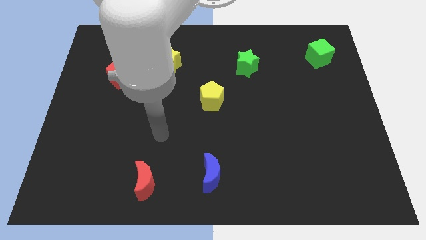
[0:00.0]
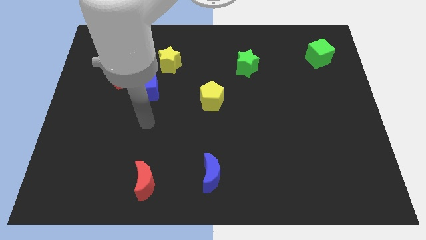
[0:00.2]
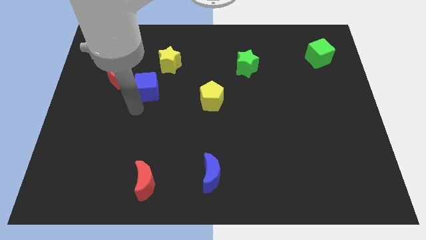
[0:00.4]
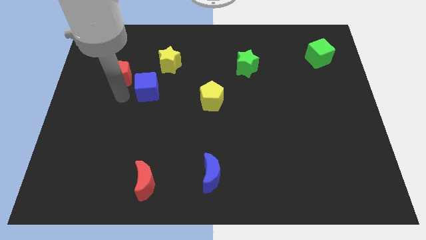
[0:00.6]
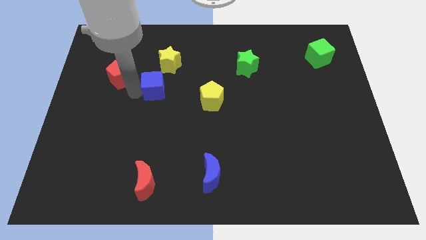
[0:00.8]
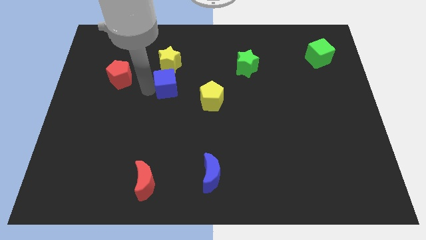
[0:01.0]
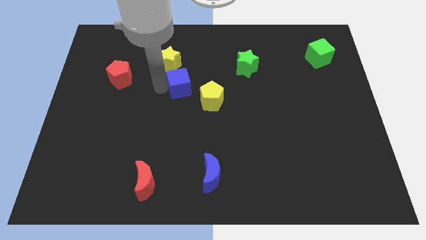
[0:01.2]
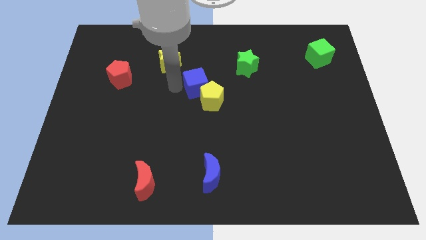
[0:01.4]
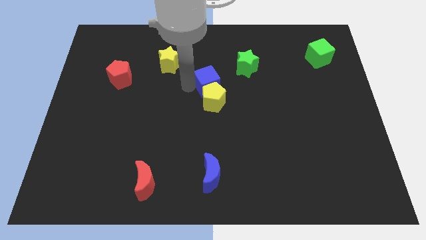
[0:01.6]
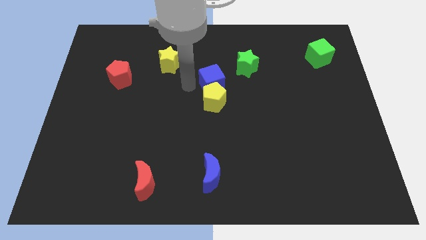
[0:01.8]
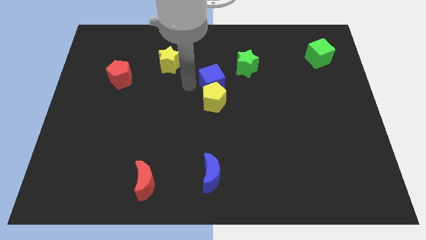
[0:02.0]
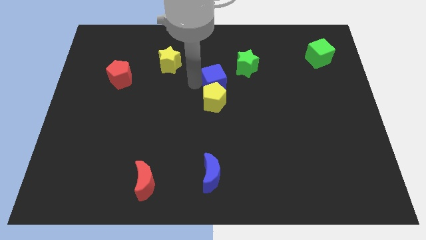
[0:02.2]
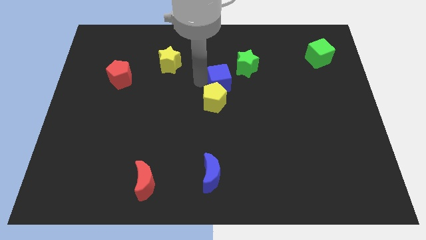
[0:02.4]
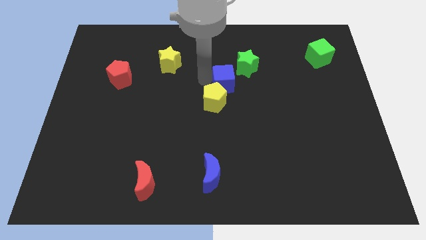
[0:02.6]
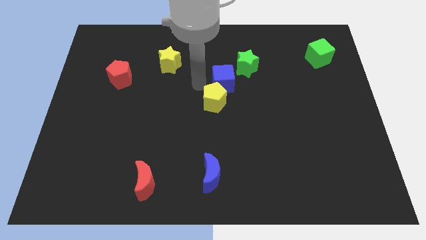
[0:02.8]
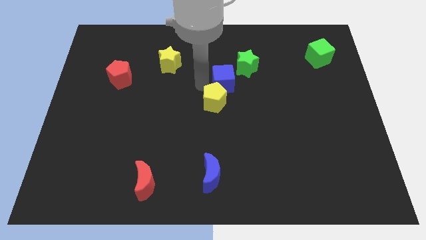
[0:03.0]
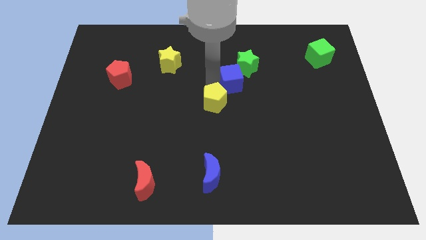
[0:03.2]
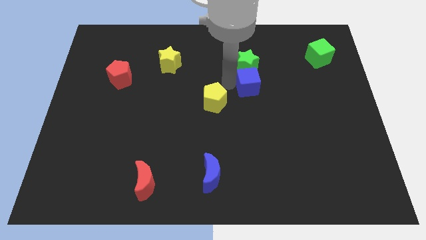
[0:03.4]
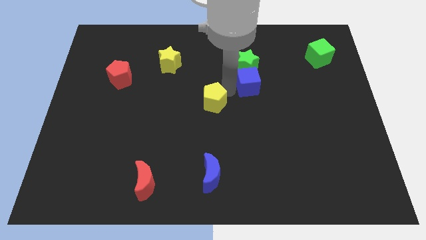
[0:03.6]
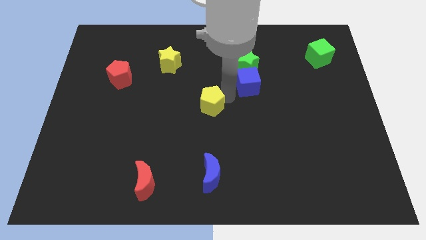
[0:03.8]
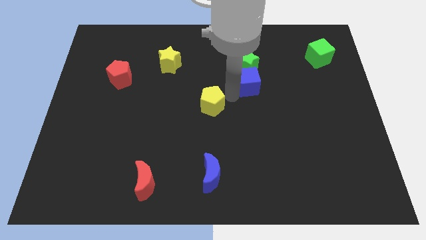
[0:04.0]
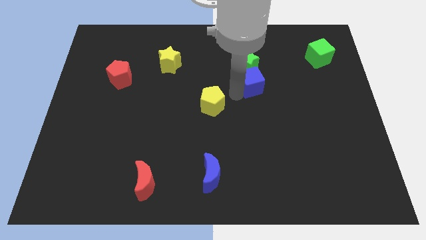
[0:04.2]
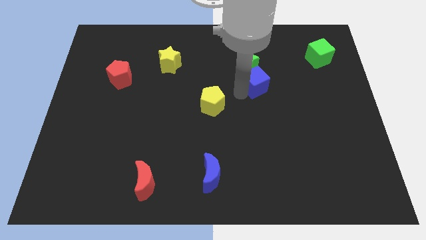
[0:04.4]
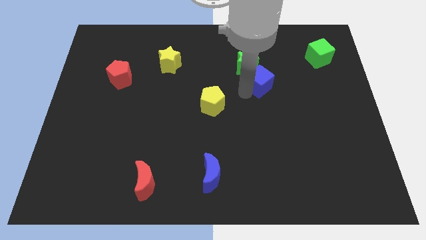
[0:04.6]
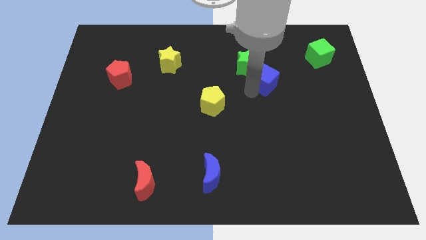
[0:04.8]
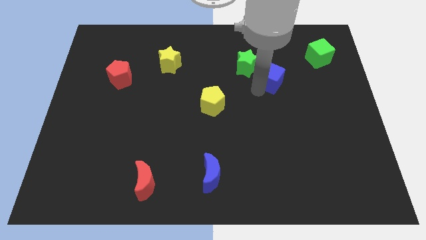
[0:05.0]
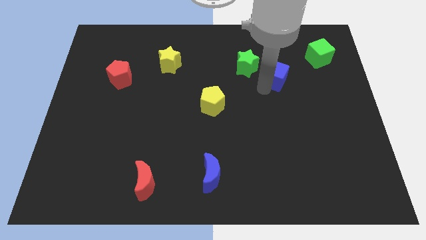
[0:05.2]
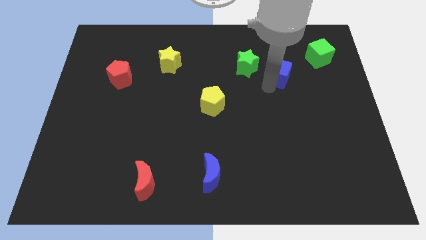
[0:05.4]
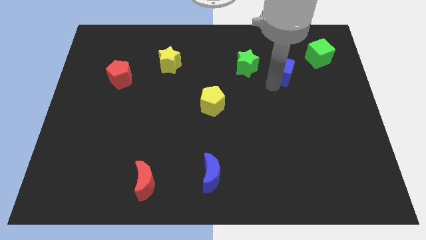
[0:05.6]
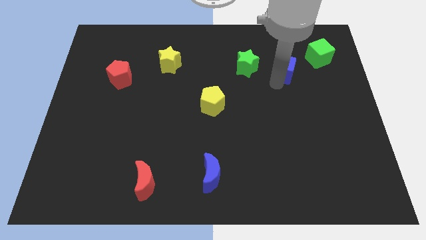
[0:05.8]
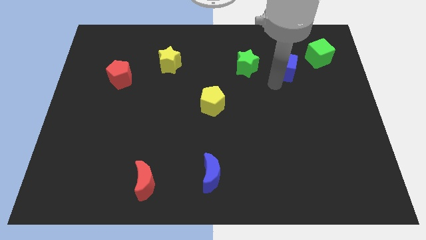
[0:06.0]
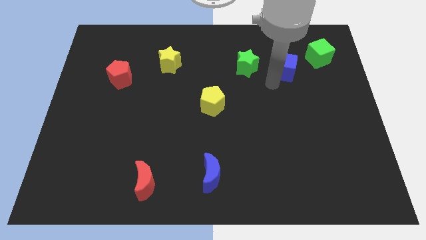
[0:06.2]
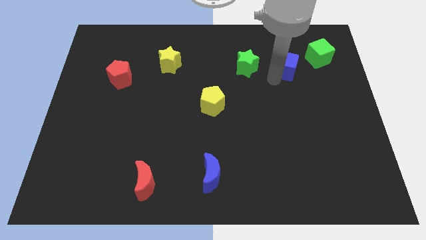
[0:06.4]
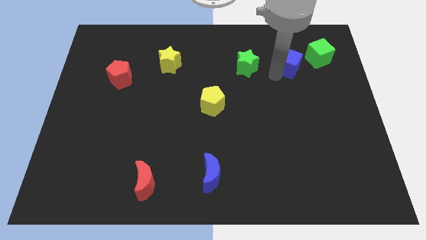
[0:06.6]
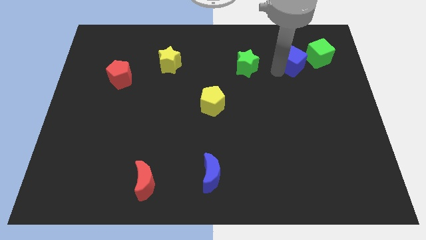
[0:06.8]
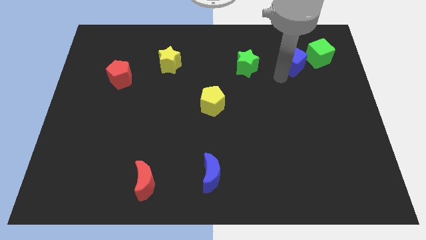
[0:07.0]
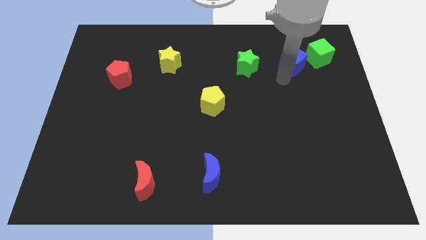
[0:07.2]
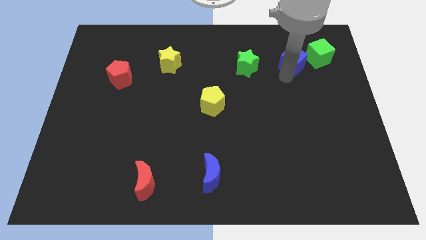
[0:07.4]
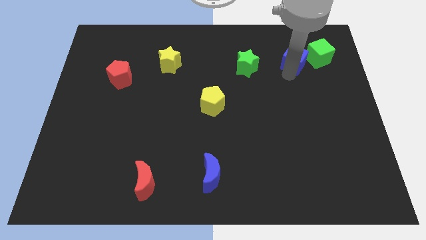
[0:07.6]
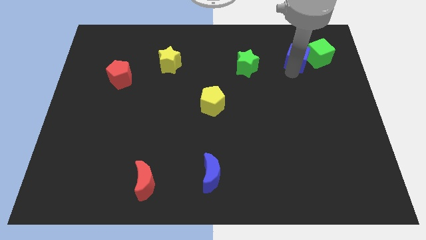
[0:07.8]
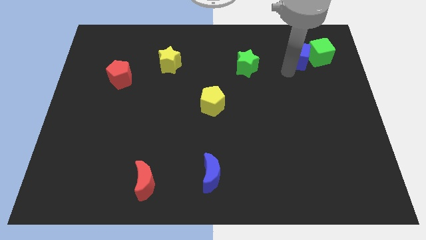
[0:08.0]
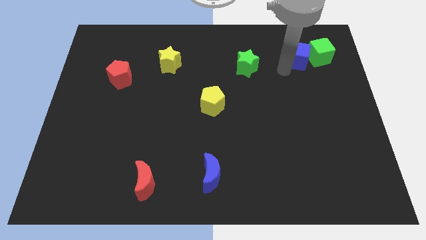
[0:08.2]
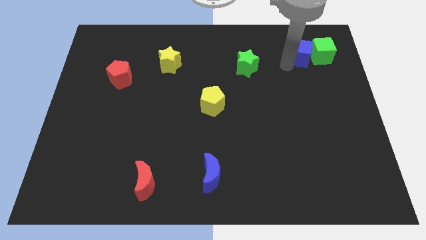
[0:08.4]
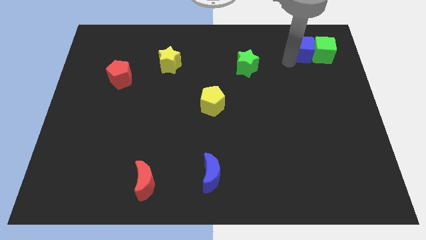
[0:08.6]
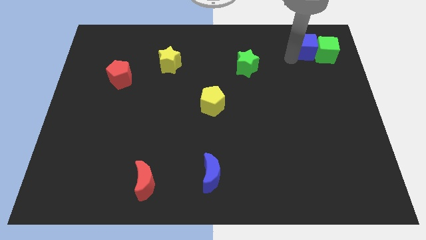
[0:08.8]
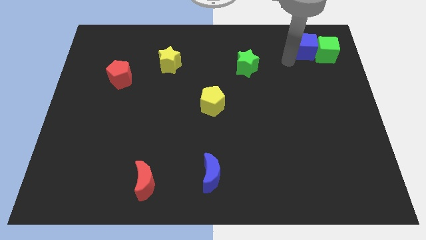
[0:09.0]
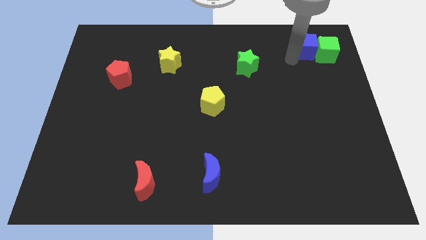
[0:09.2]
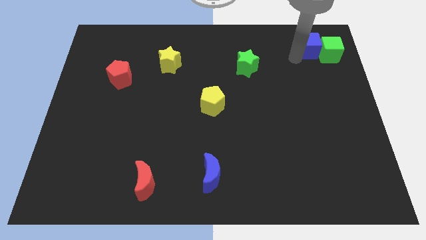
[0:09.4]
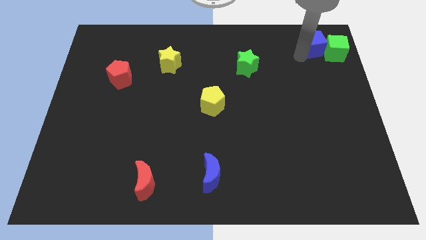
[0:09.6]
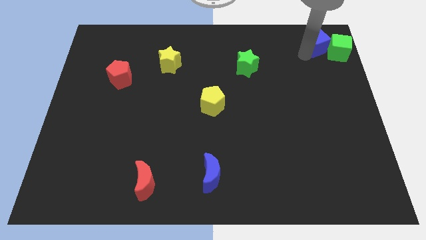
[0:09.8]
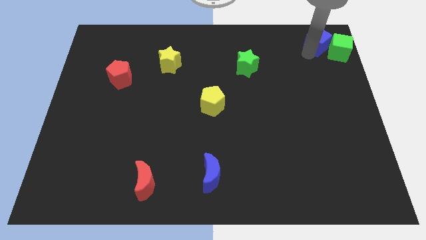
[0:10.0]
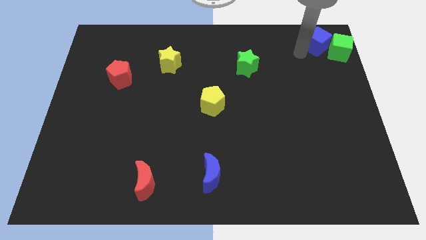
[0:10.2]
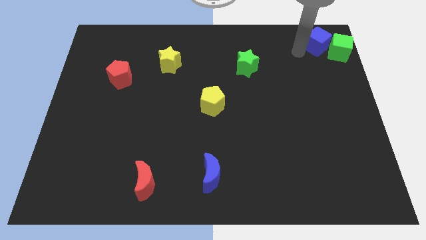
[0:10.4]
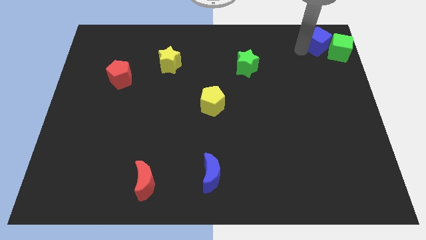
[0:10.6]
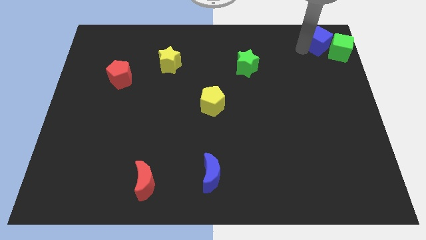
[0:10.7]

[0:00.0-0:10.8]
slide the blue cube to the top right corner
